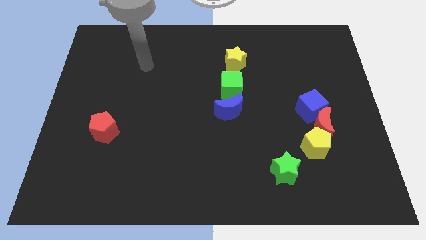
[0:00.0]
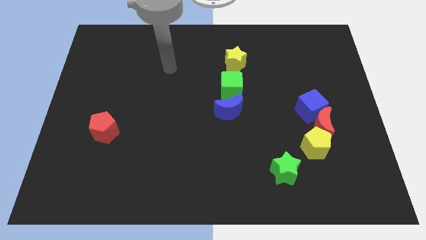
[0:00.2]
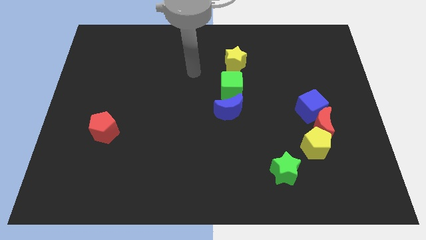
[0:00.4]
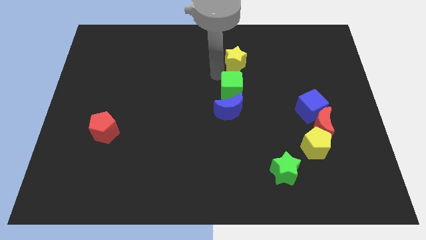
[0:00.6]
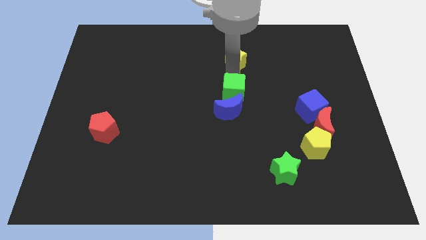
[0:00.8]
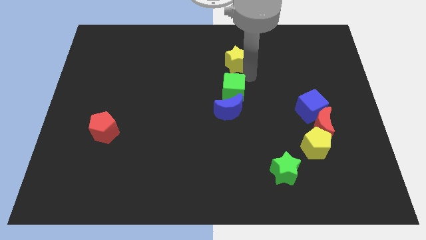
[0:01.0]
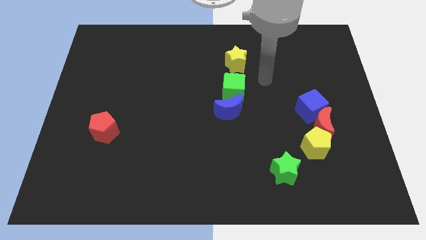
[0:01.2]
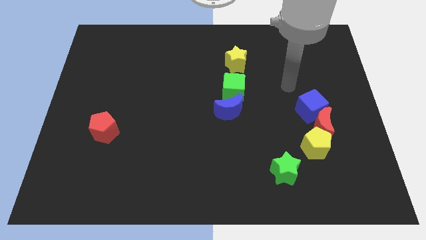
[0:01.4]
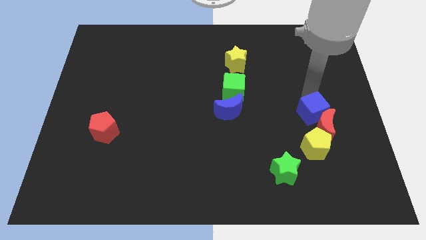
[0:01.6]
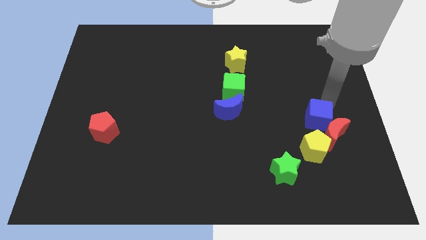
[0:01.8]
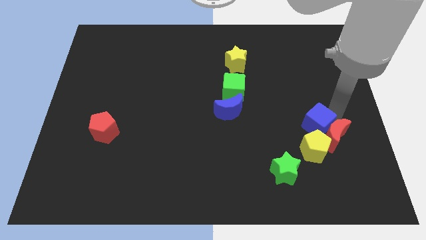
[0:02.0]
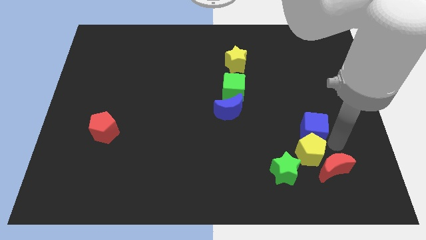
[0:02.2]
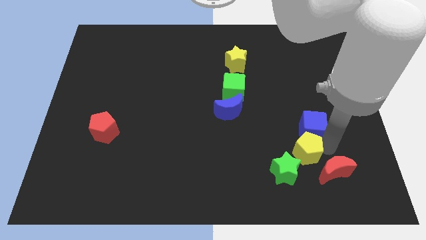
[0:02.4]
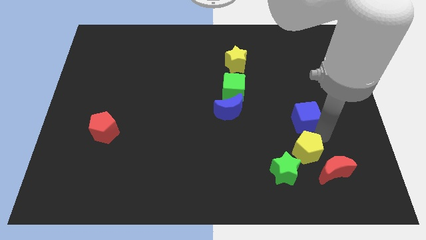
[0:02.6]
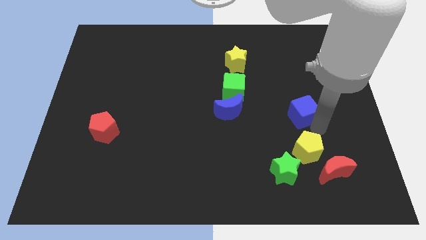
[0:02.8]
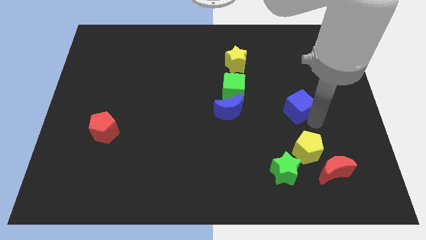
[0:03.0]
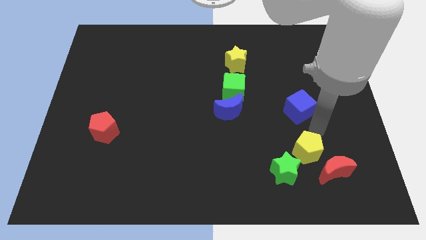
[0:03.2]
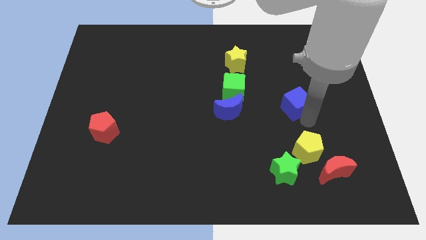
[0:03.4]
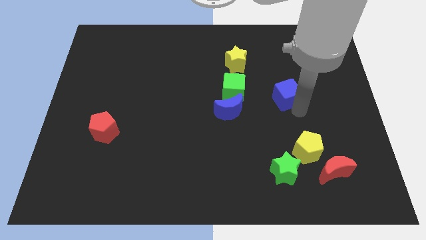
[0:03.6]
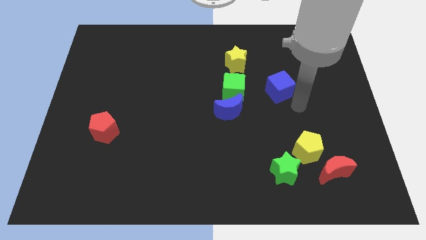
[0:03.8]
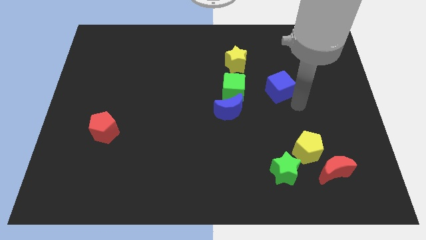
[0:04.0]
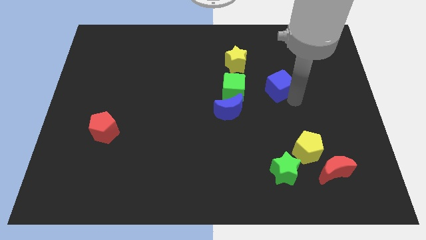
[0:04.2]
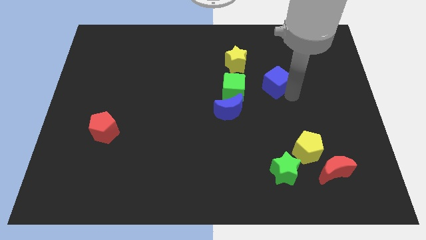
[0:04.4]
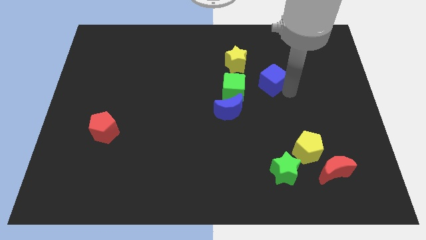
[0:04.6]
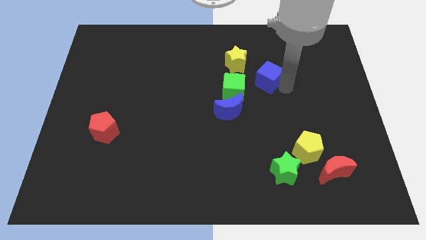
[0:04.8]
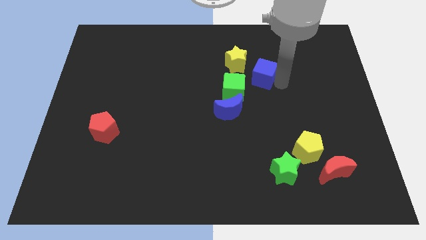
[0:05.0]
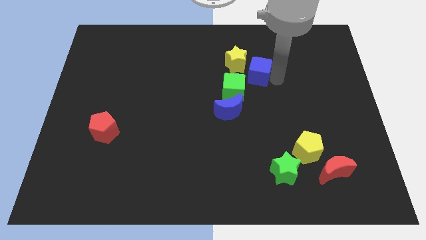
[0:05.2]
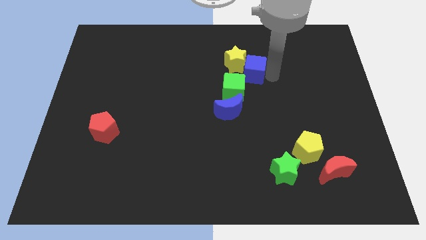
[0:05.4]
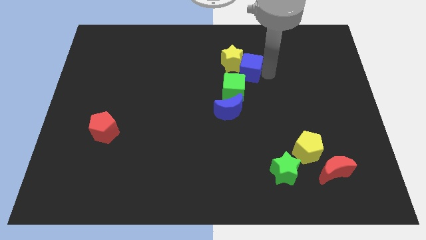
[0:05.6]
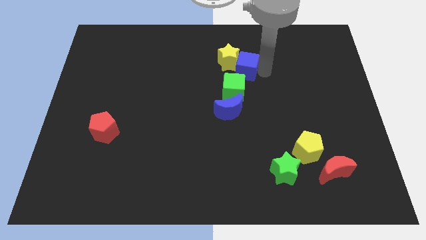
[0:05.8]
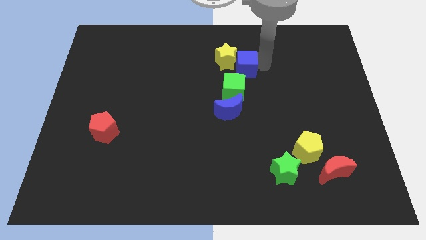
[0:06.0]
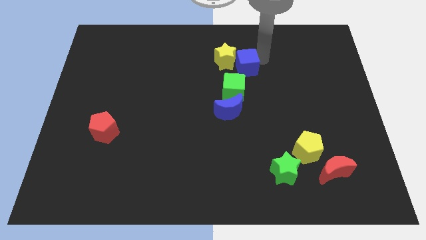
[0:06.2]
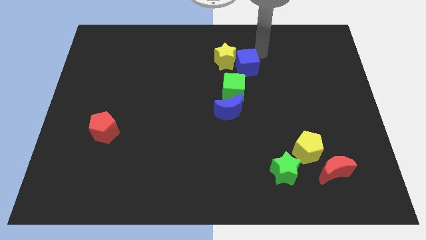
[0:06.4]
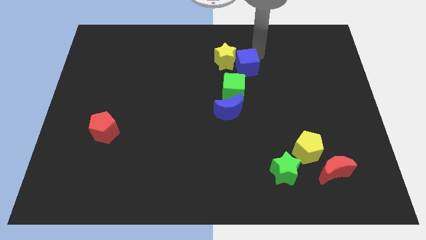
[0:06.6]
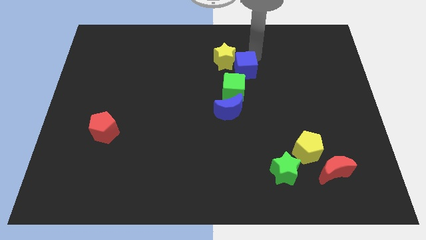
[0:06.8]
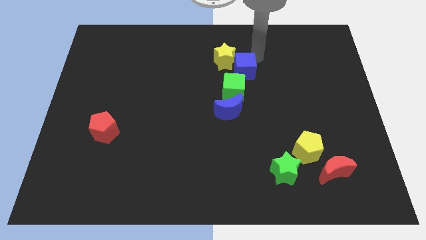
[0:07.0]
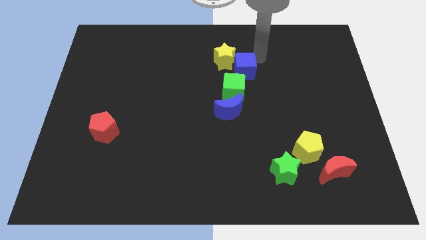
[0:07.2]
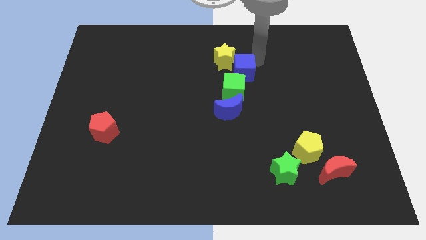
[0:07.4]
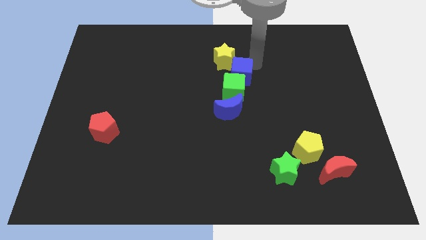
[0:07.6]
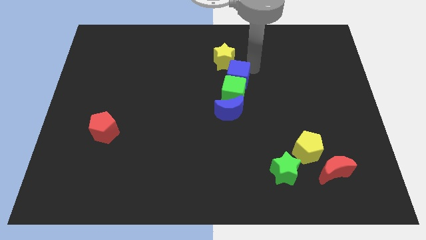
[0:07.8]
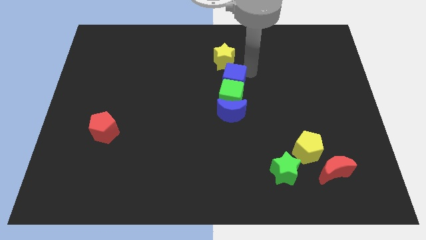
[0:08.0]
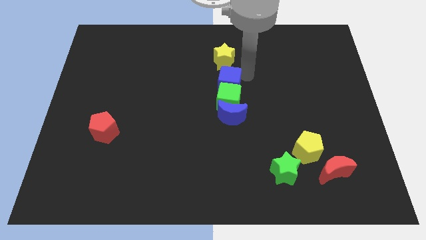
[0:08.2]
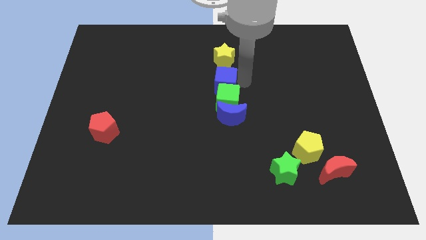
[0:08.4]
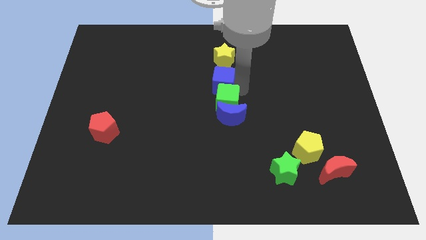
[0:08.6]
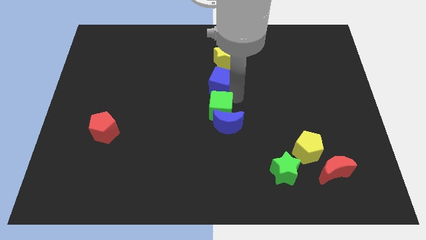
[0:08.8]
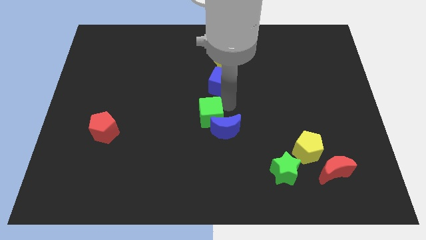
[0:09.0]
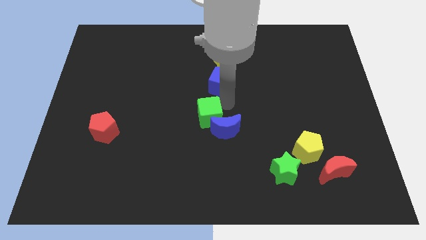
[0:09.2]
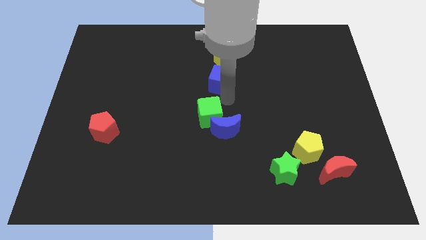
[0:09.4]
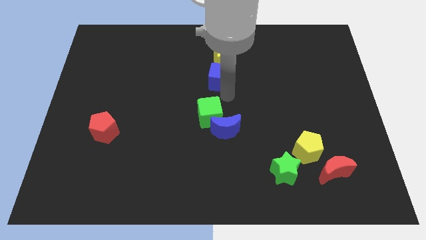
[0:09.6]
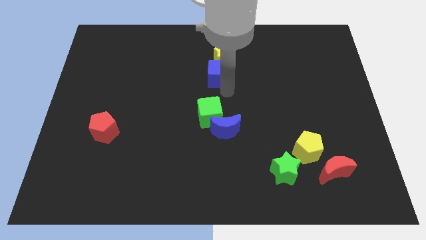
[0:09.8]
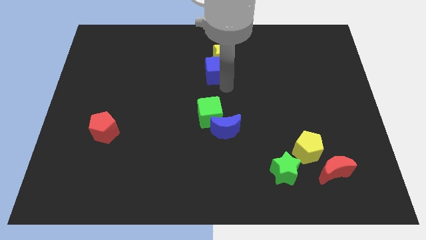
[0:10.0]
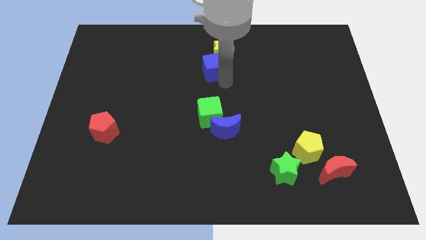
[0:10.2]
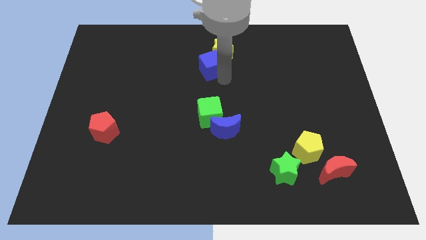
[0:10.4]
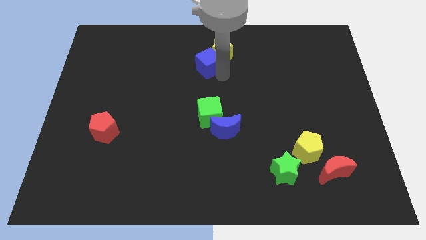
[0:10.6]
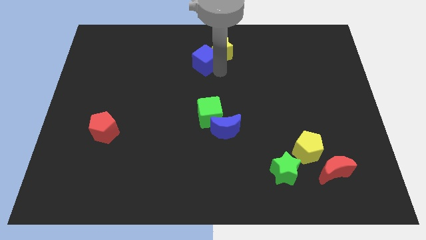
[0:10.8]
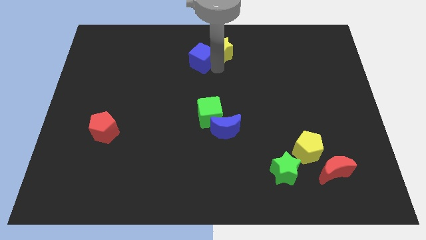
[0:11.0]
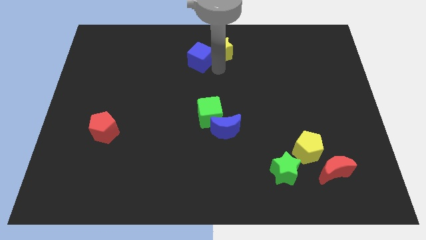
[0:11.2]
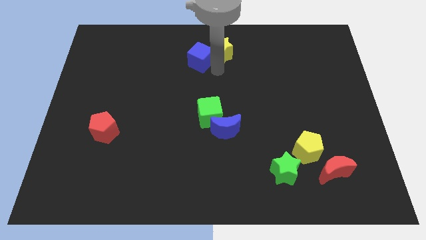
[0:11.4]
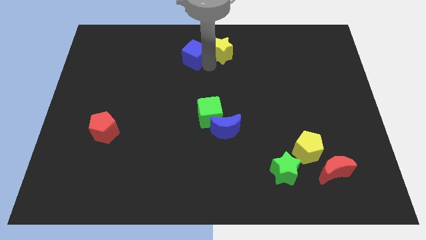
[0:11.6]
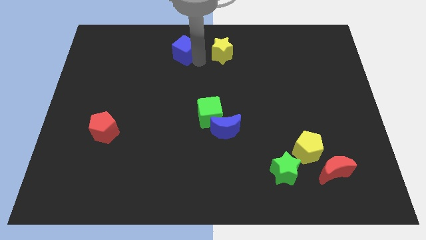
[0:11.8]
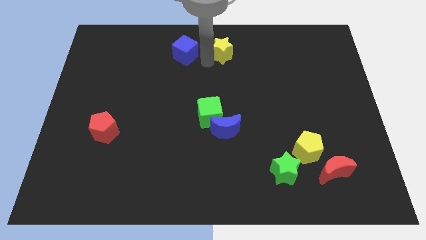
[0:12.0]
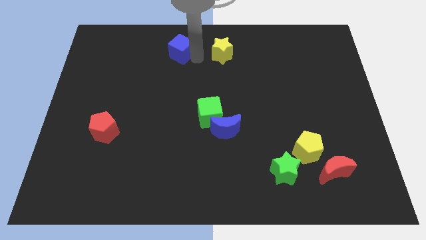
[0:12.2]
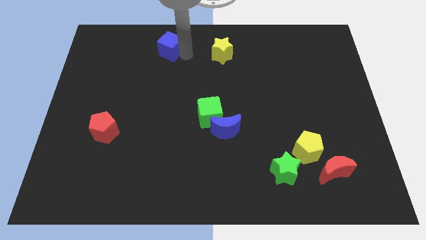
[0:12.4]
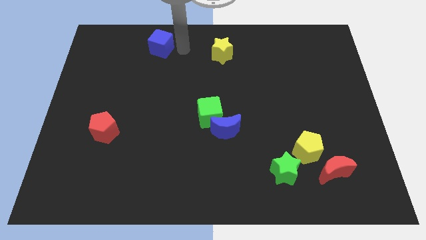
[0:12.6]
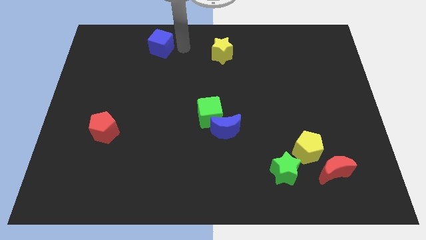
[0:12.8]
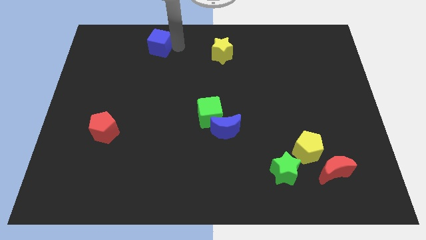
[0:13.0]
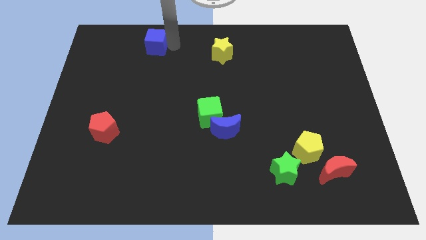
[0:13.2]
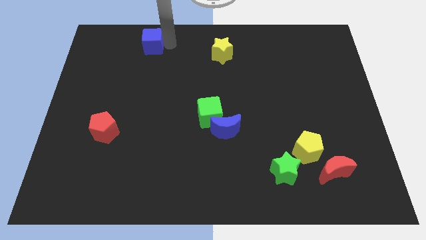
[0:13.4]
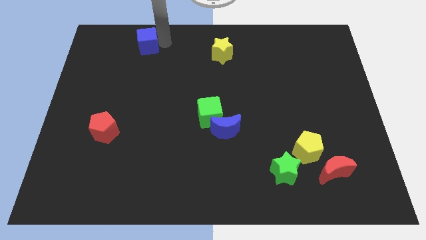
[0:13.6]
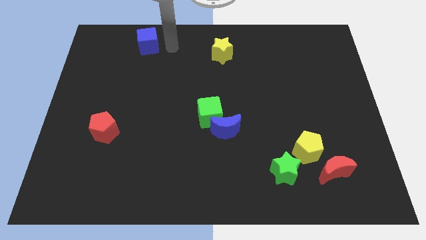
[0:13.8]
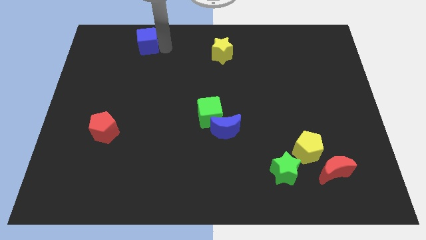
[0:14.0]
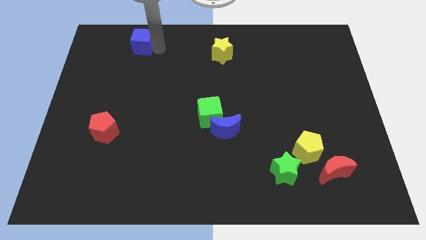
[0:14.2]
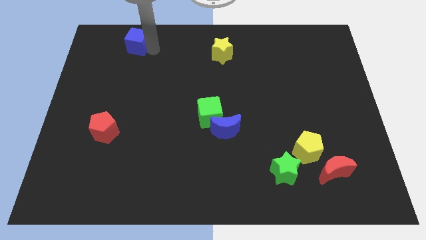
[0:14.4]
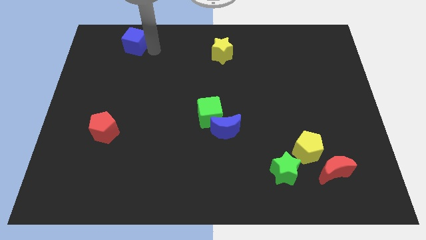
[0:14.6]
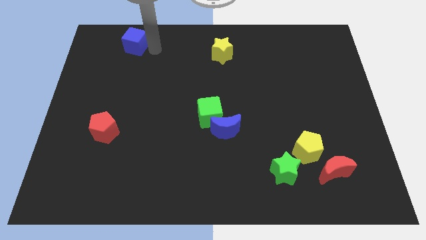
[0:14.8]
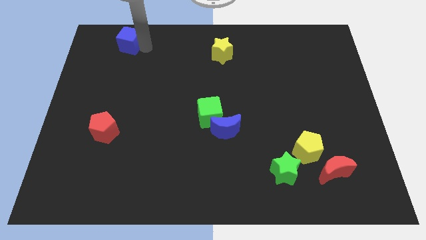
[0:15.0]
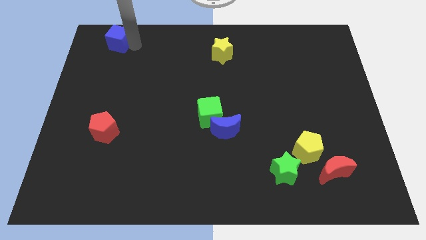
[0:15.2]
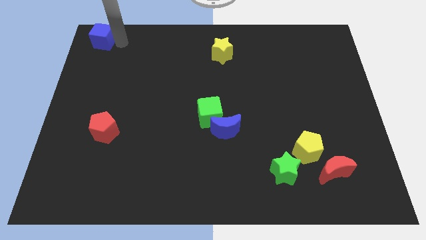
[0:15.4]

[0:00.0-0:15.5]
slide the blue cube to the top left
